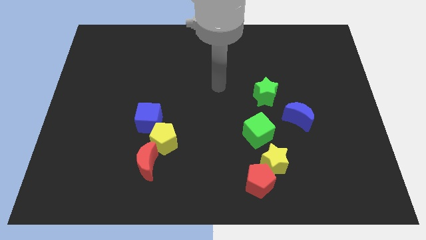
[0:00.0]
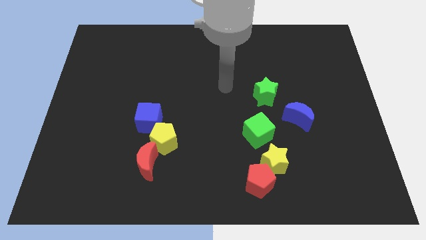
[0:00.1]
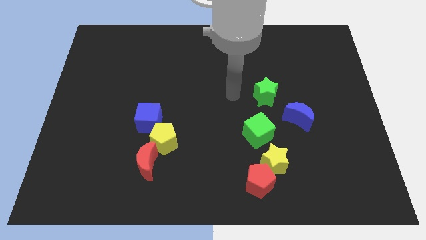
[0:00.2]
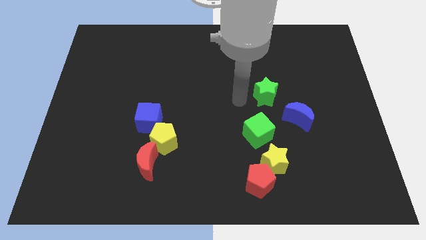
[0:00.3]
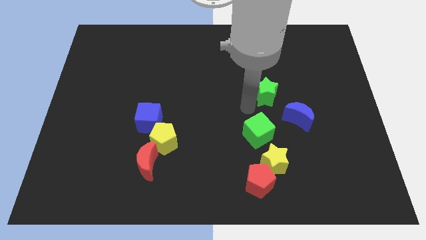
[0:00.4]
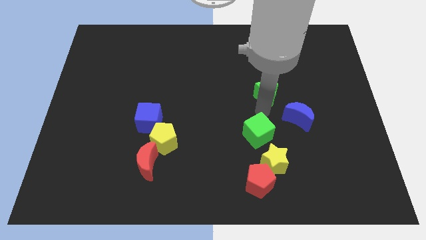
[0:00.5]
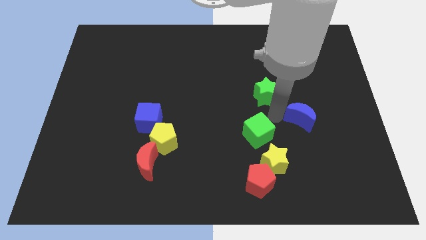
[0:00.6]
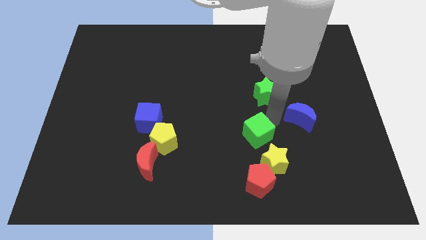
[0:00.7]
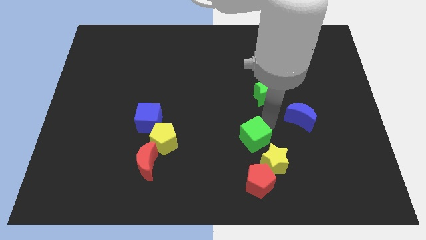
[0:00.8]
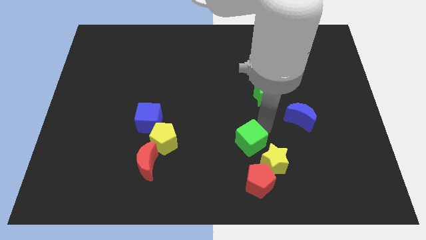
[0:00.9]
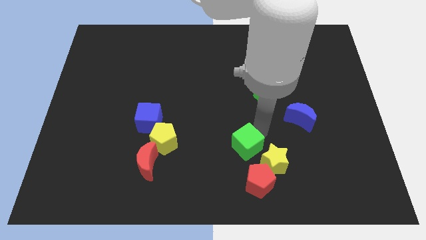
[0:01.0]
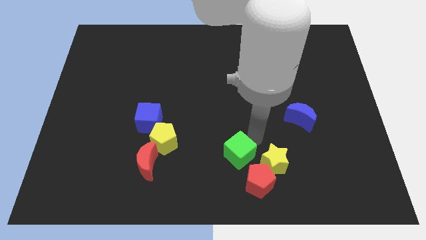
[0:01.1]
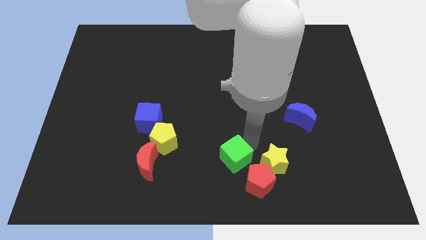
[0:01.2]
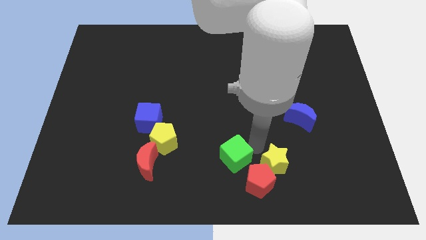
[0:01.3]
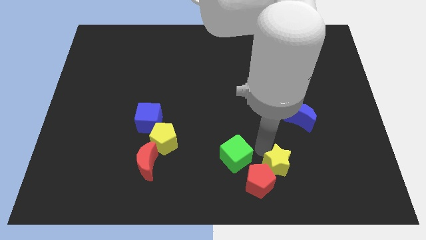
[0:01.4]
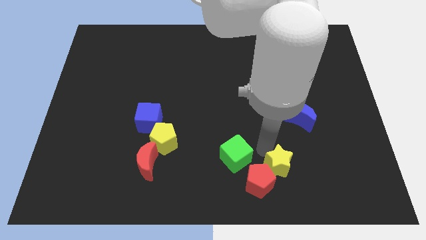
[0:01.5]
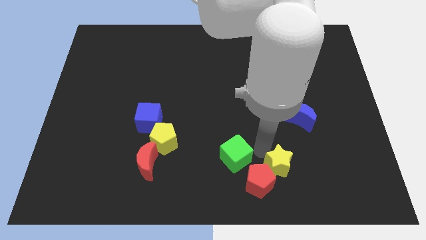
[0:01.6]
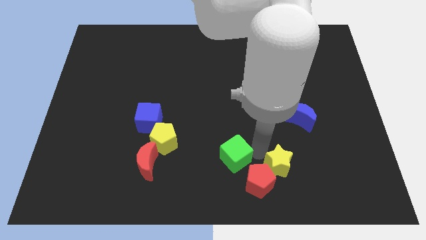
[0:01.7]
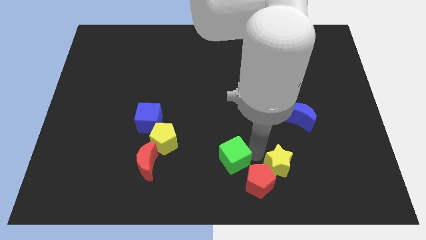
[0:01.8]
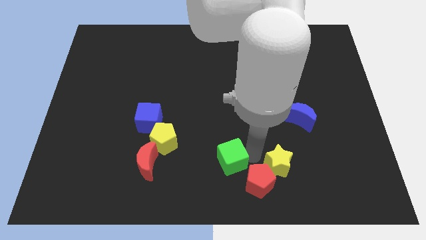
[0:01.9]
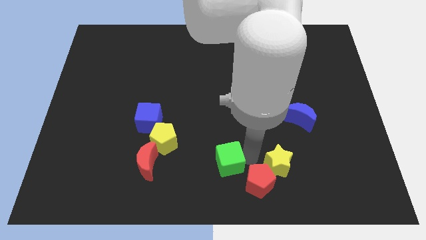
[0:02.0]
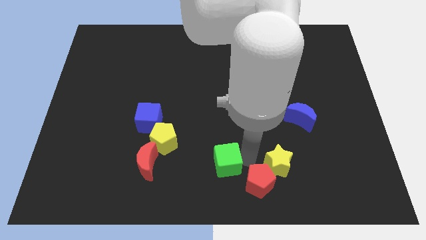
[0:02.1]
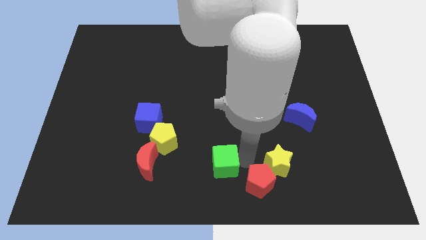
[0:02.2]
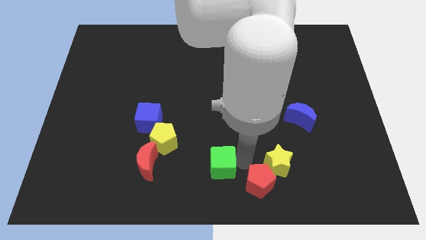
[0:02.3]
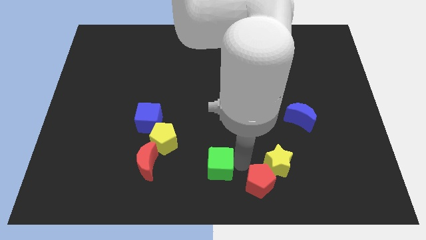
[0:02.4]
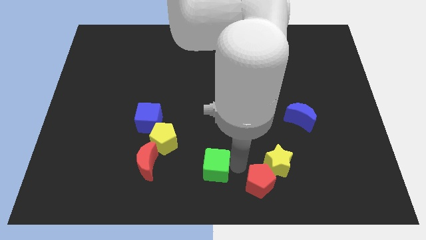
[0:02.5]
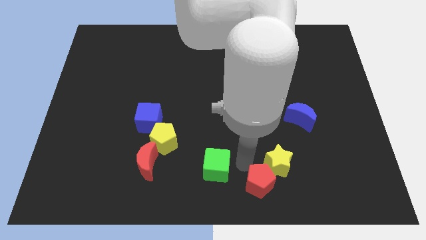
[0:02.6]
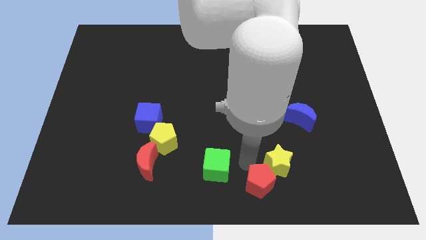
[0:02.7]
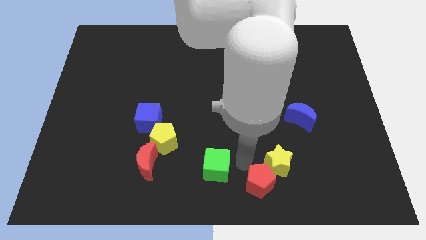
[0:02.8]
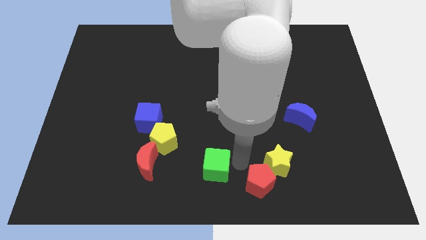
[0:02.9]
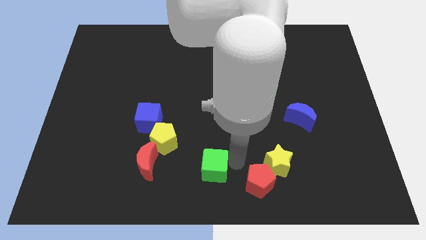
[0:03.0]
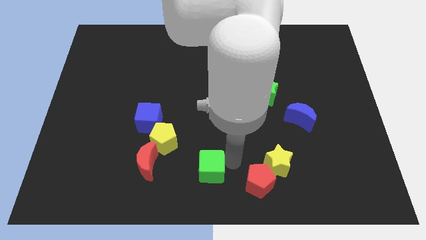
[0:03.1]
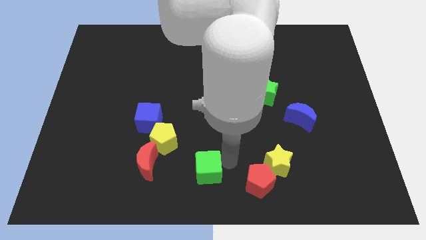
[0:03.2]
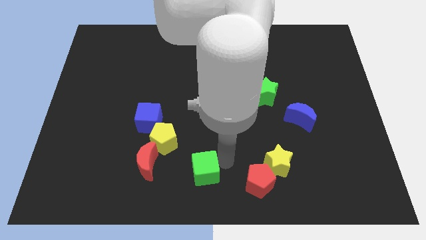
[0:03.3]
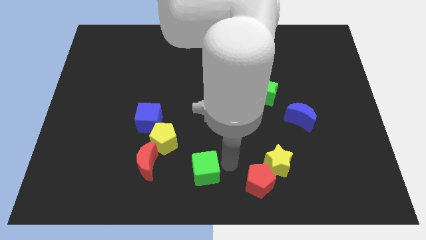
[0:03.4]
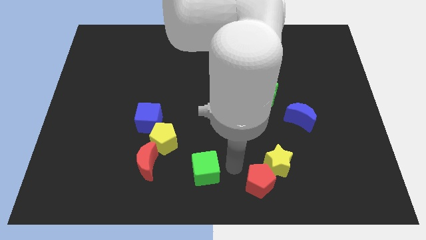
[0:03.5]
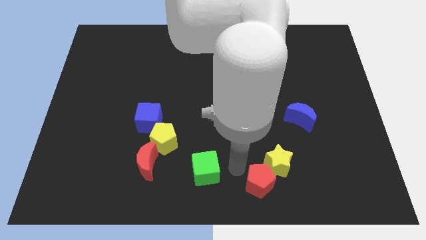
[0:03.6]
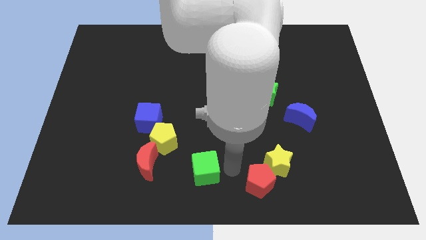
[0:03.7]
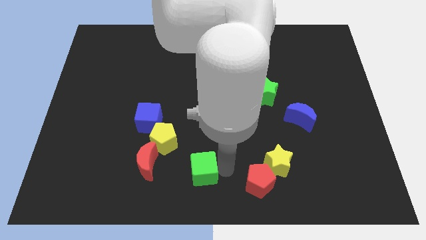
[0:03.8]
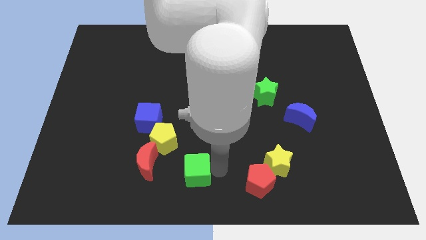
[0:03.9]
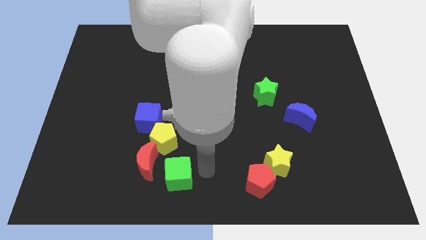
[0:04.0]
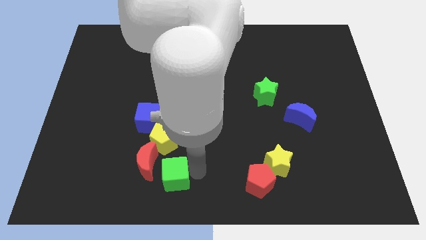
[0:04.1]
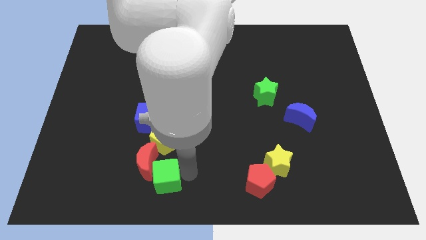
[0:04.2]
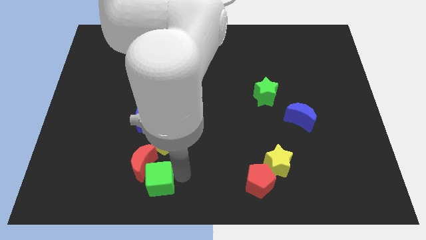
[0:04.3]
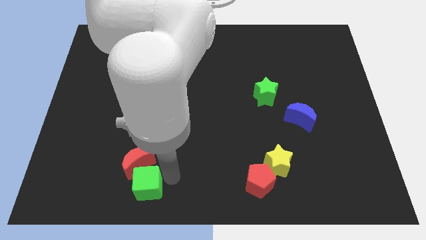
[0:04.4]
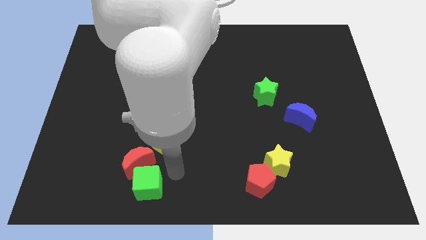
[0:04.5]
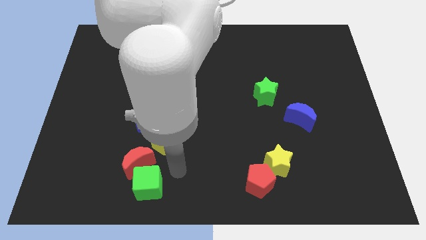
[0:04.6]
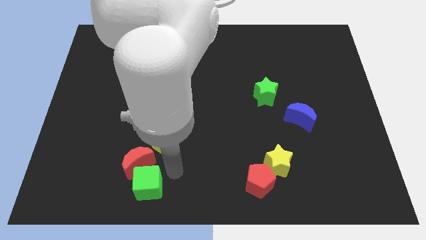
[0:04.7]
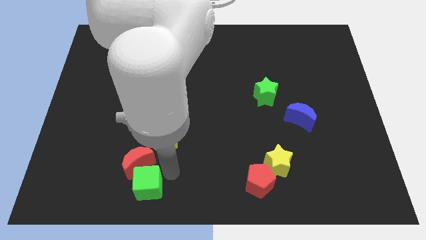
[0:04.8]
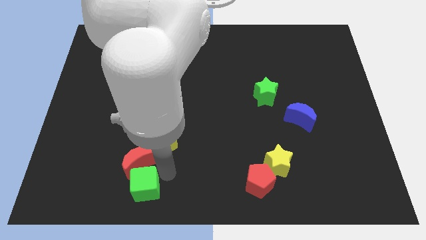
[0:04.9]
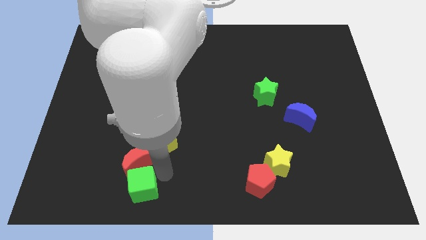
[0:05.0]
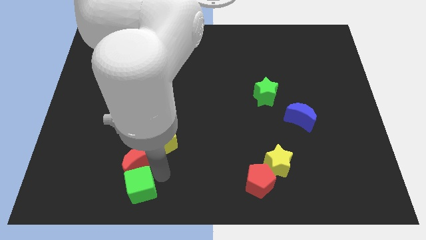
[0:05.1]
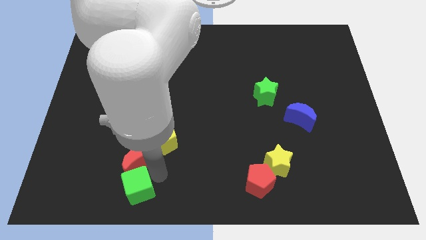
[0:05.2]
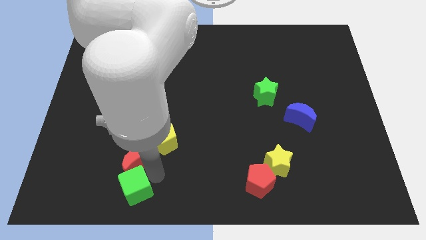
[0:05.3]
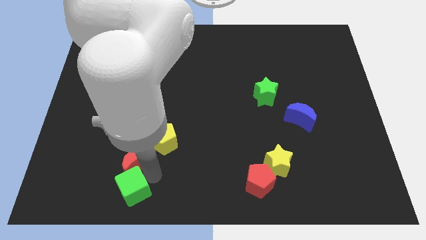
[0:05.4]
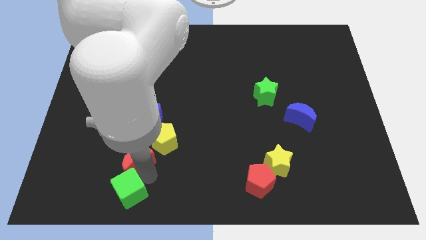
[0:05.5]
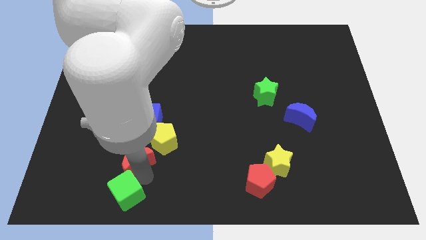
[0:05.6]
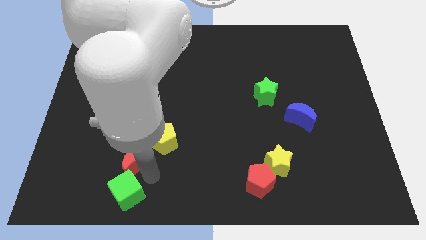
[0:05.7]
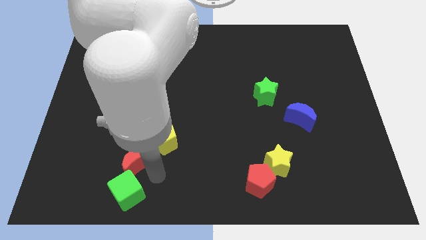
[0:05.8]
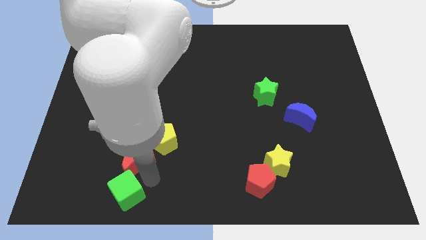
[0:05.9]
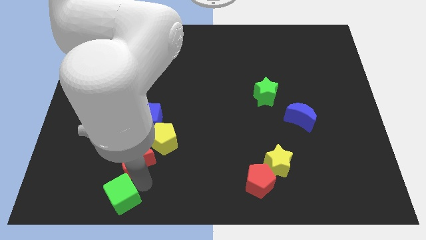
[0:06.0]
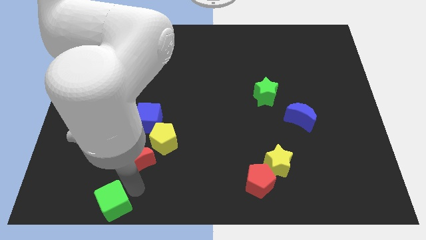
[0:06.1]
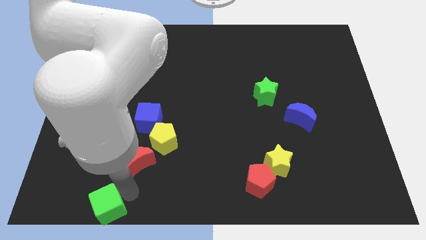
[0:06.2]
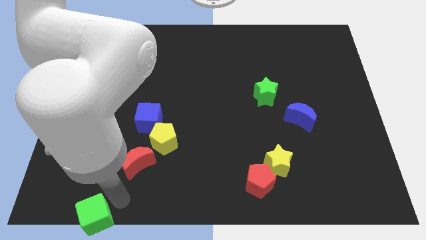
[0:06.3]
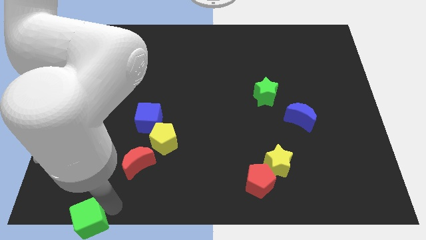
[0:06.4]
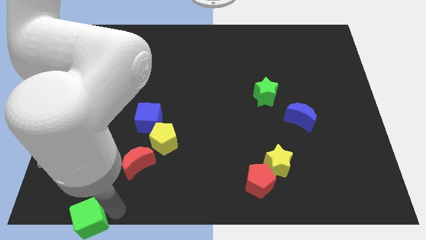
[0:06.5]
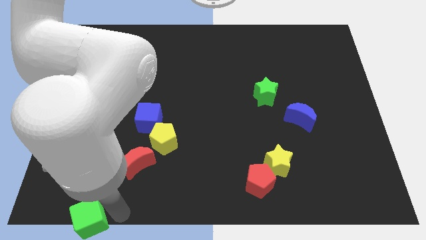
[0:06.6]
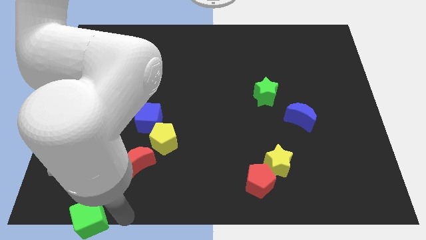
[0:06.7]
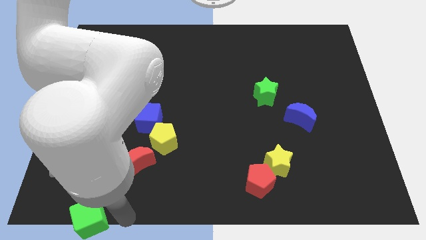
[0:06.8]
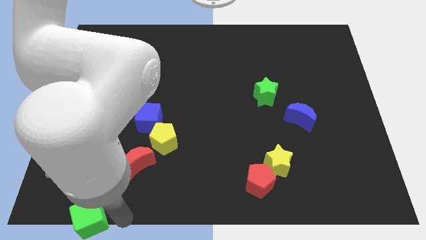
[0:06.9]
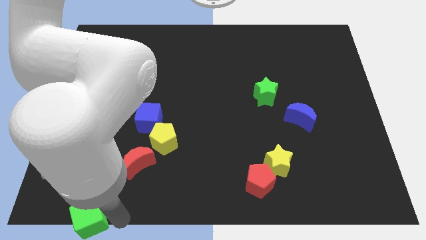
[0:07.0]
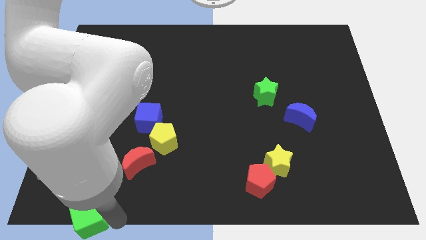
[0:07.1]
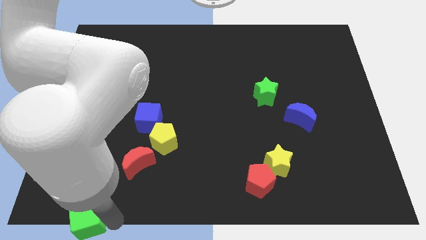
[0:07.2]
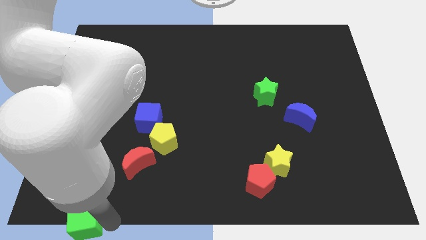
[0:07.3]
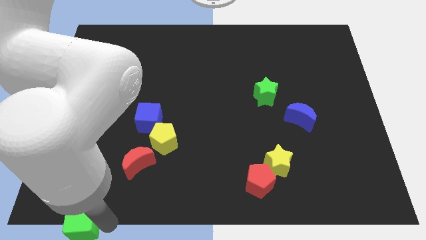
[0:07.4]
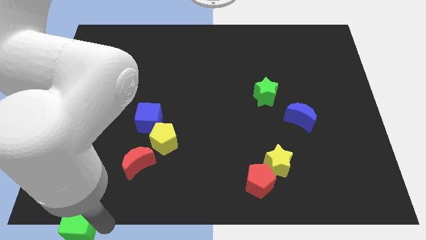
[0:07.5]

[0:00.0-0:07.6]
slide the green cube to the lower left corner
